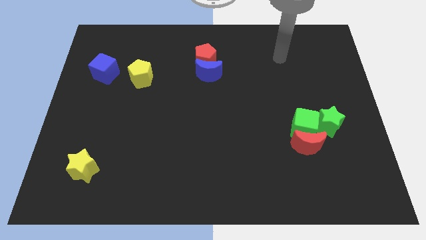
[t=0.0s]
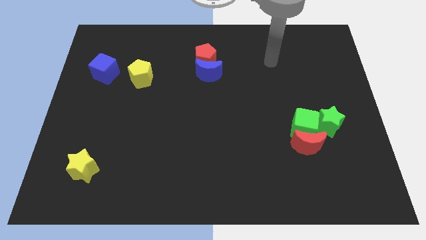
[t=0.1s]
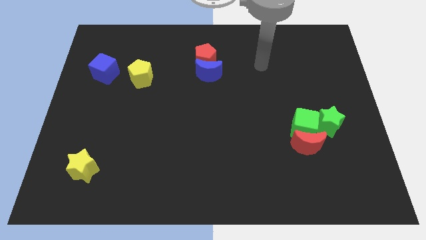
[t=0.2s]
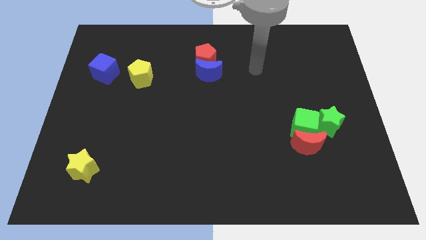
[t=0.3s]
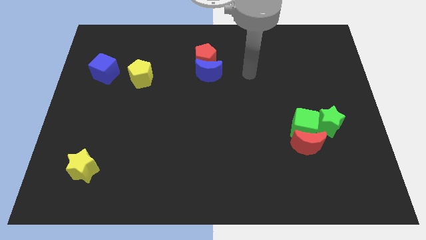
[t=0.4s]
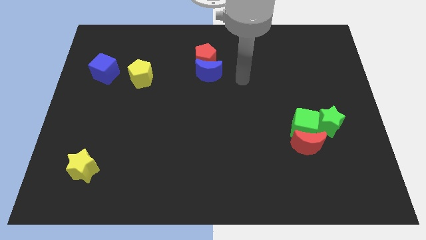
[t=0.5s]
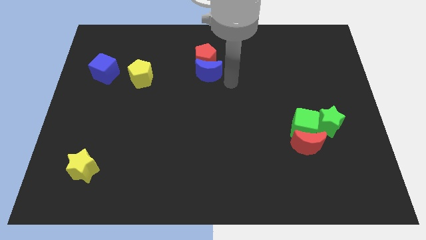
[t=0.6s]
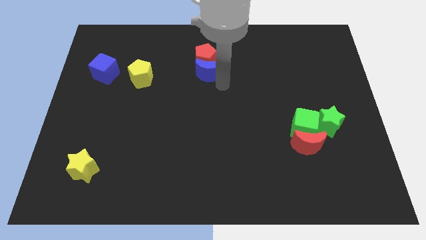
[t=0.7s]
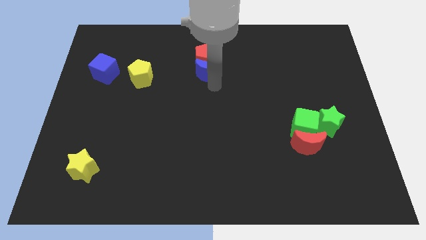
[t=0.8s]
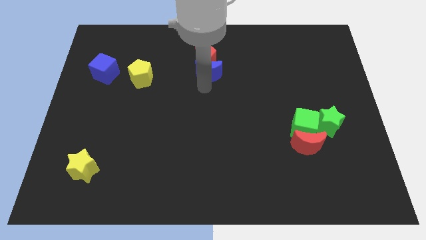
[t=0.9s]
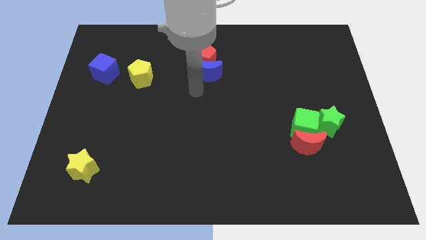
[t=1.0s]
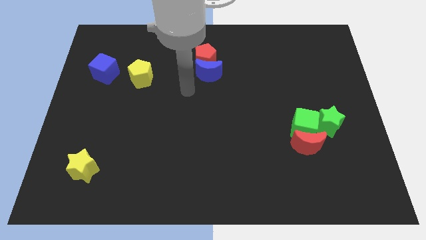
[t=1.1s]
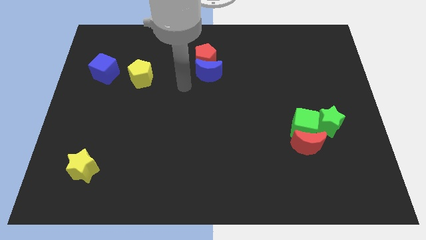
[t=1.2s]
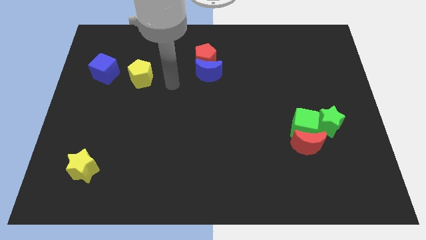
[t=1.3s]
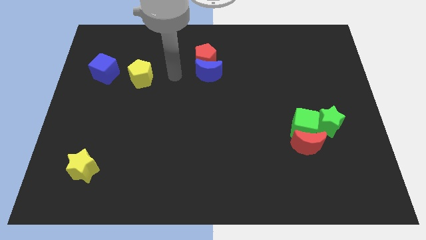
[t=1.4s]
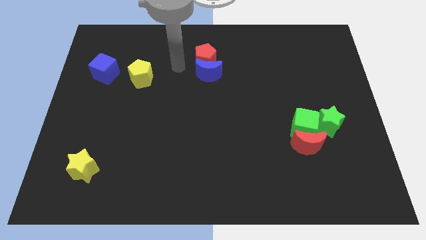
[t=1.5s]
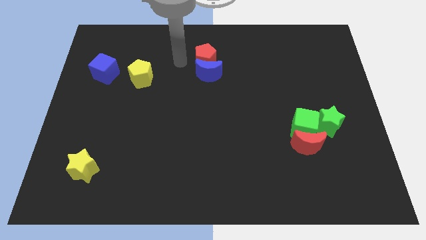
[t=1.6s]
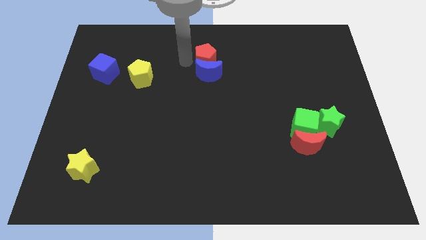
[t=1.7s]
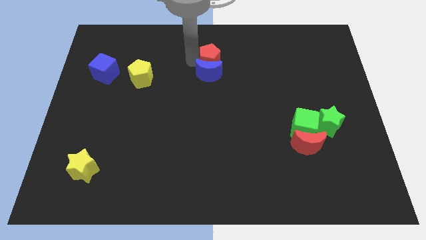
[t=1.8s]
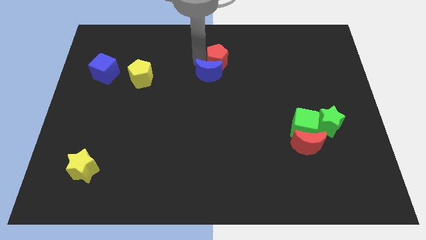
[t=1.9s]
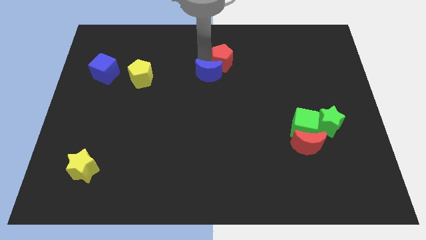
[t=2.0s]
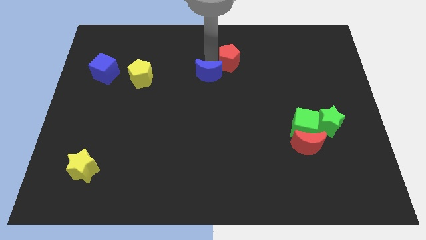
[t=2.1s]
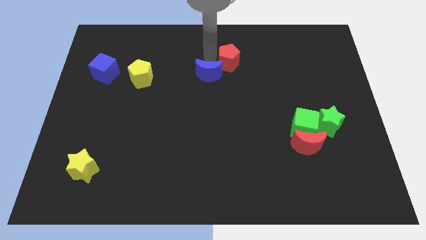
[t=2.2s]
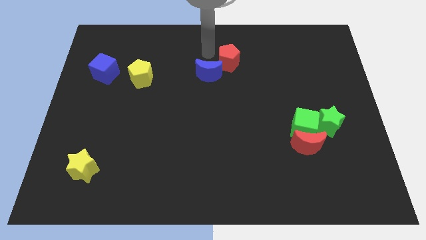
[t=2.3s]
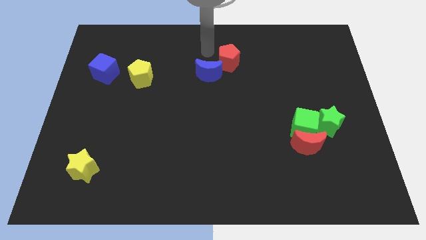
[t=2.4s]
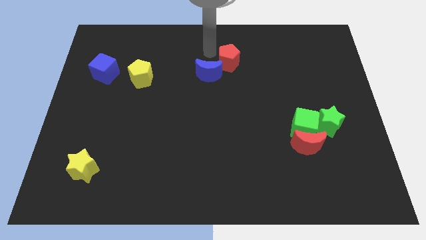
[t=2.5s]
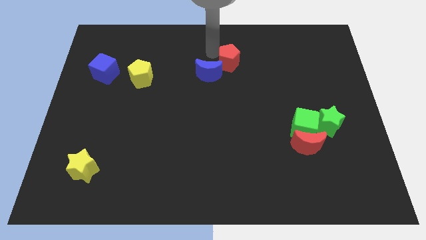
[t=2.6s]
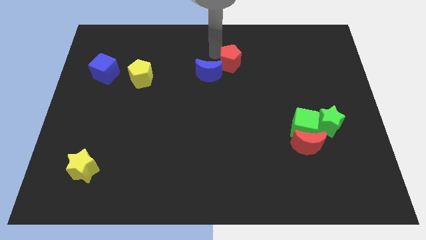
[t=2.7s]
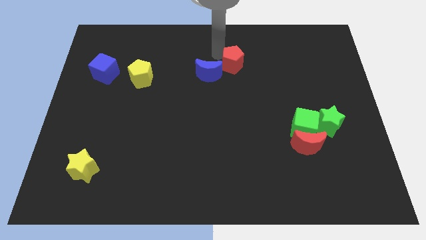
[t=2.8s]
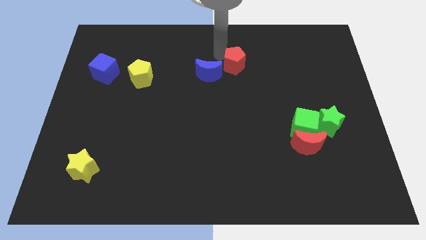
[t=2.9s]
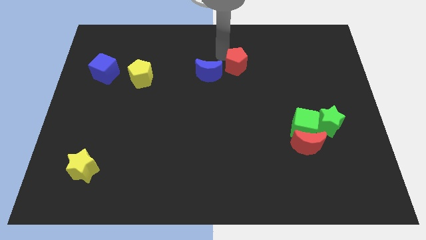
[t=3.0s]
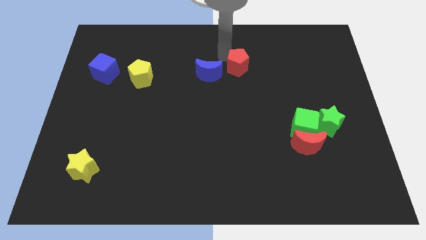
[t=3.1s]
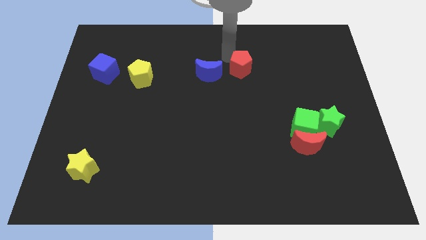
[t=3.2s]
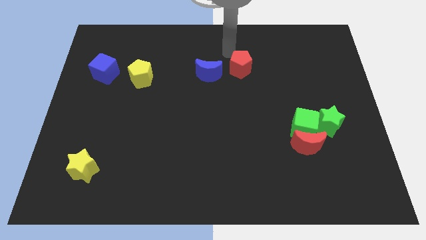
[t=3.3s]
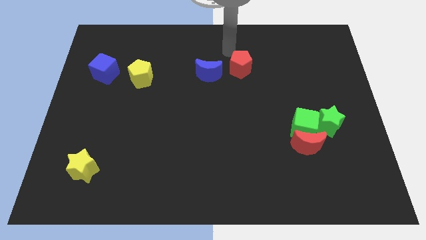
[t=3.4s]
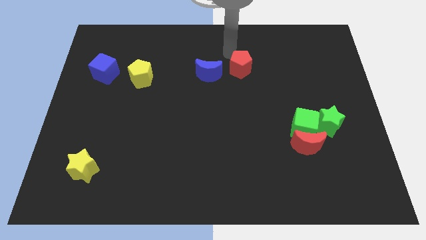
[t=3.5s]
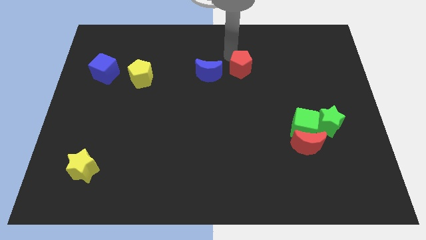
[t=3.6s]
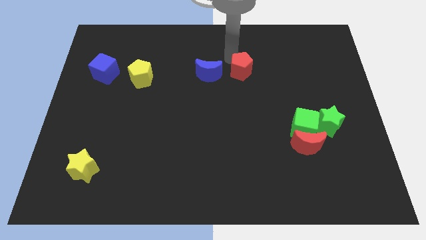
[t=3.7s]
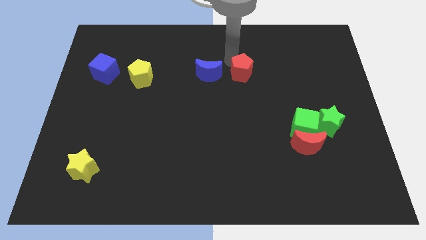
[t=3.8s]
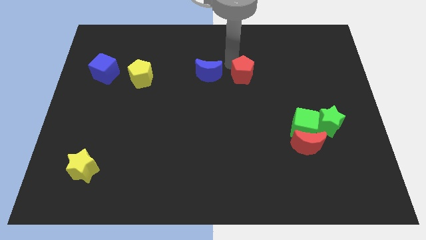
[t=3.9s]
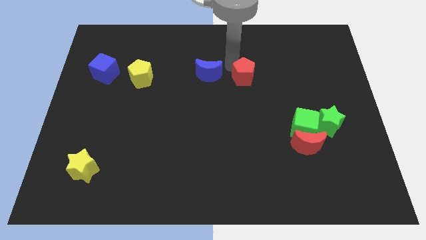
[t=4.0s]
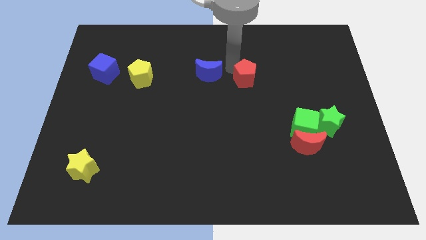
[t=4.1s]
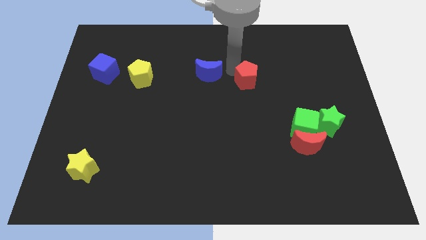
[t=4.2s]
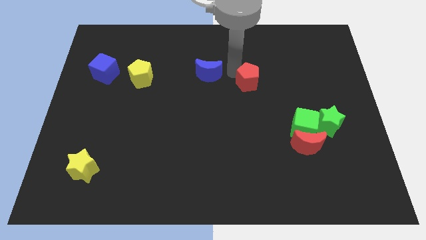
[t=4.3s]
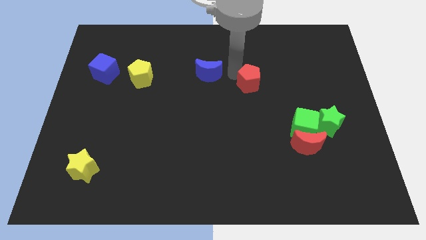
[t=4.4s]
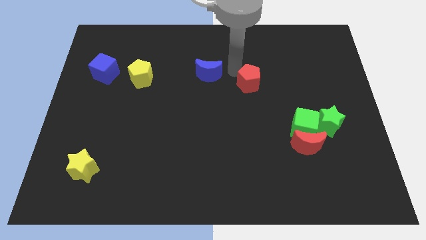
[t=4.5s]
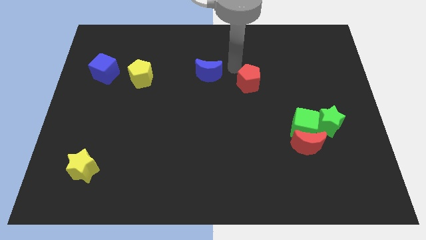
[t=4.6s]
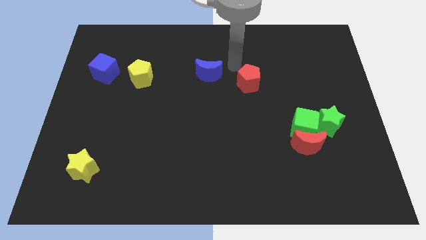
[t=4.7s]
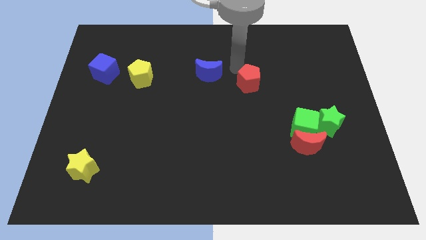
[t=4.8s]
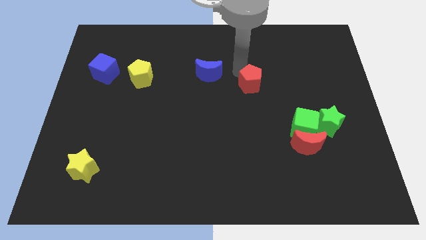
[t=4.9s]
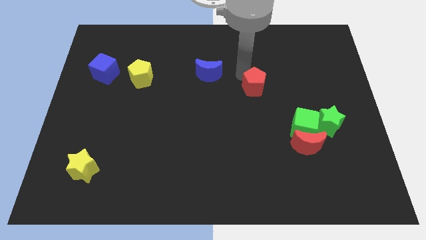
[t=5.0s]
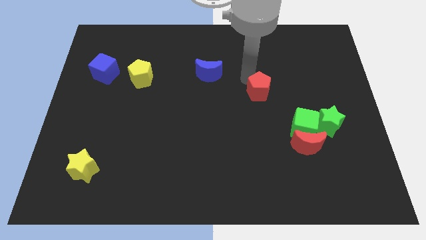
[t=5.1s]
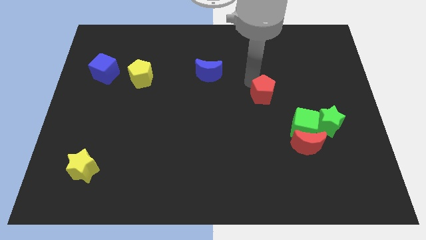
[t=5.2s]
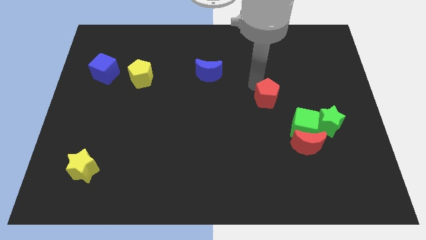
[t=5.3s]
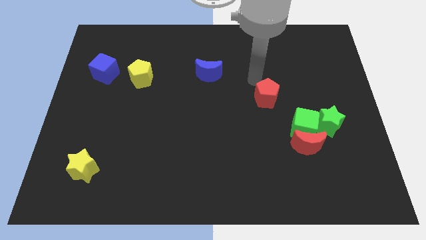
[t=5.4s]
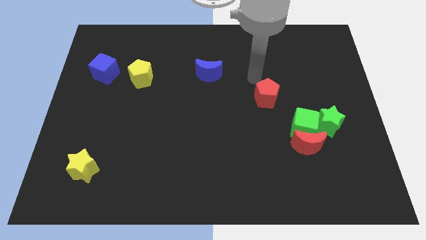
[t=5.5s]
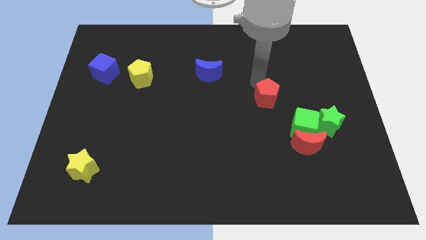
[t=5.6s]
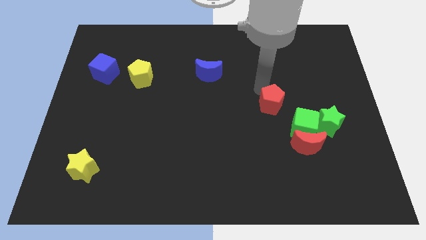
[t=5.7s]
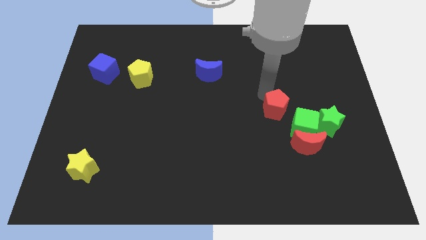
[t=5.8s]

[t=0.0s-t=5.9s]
put the red pentagon to the left of the green star
